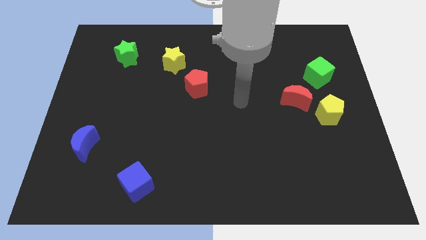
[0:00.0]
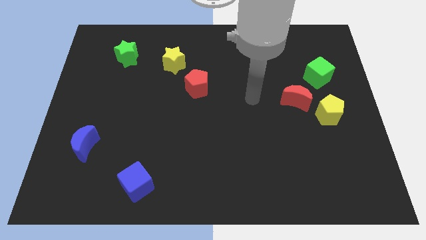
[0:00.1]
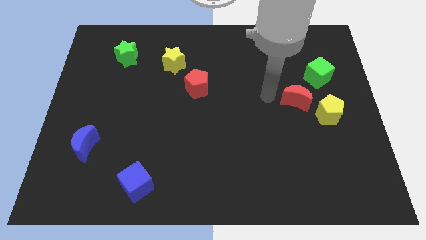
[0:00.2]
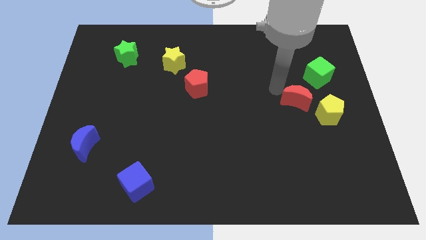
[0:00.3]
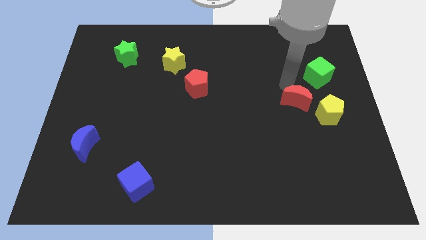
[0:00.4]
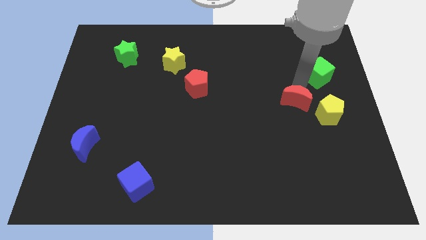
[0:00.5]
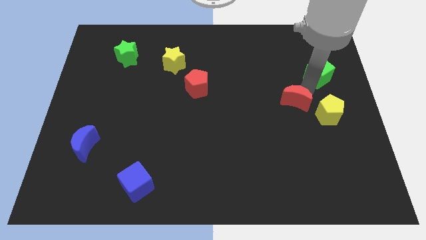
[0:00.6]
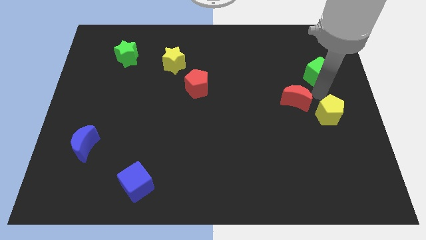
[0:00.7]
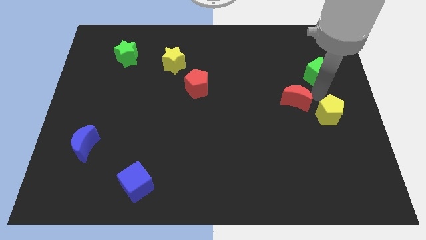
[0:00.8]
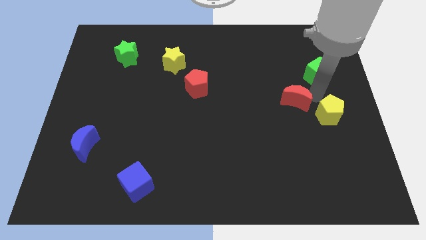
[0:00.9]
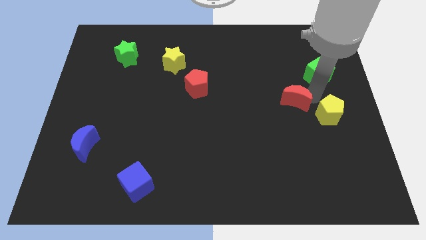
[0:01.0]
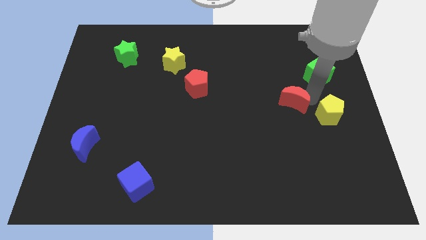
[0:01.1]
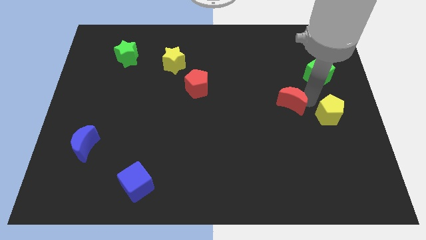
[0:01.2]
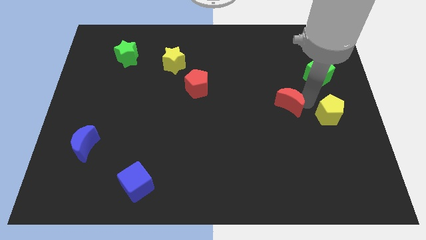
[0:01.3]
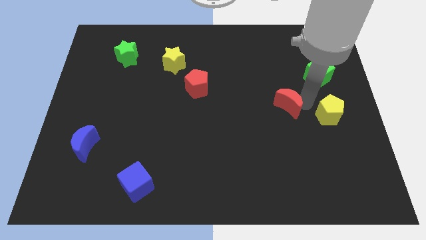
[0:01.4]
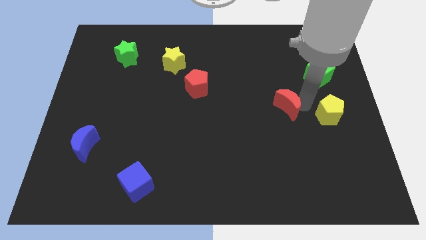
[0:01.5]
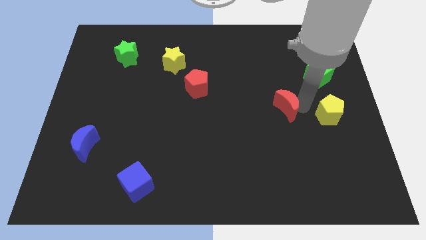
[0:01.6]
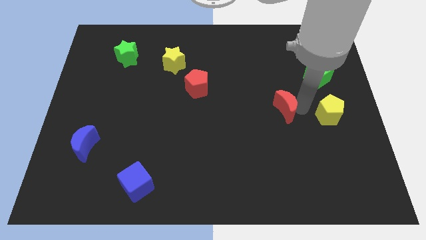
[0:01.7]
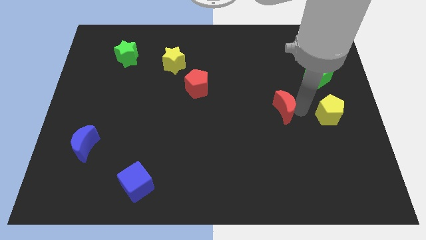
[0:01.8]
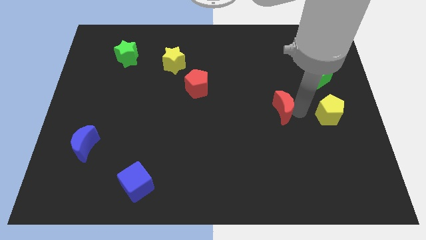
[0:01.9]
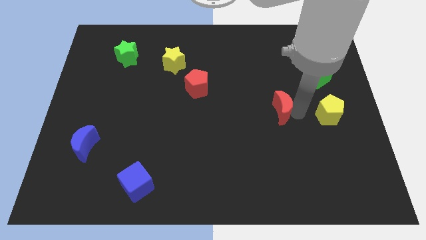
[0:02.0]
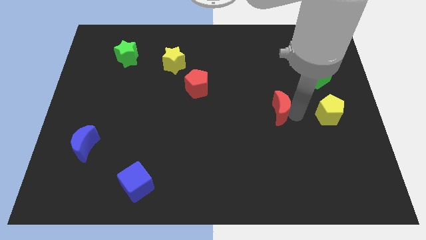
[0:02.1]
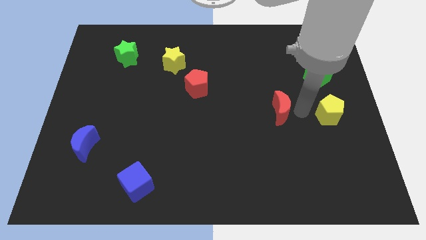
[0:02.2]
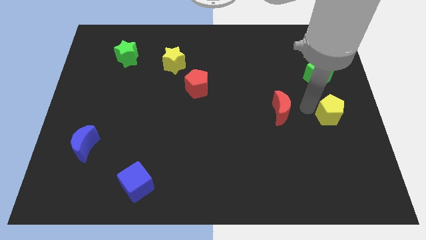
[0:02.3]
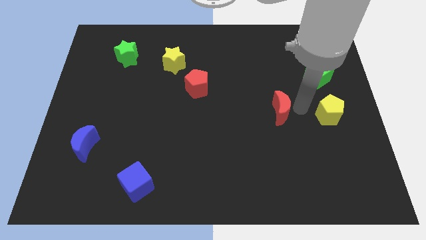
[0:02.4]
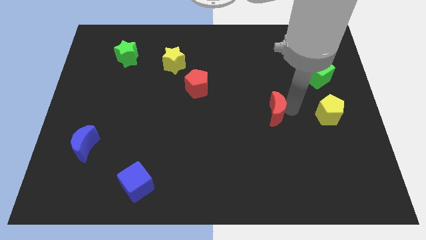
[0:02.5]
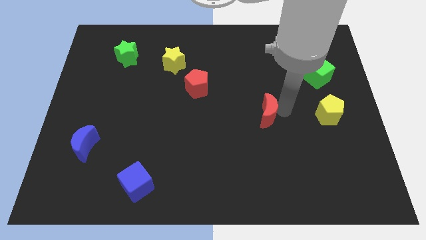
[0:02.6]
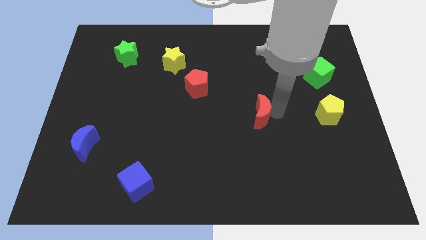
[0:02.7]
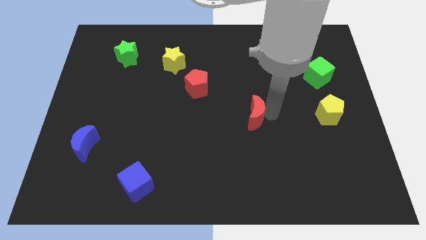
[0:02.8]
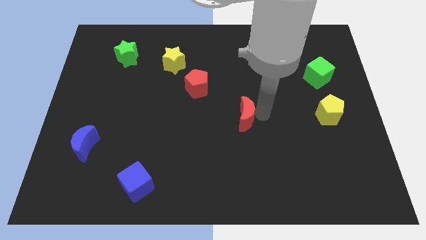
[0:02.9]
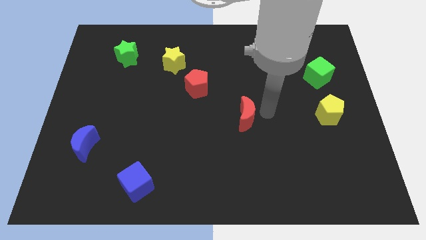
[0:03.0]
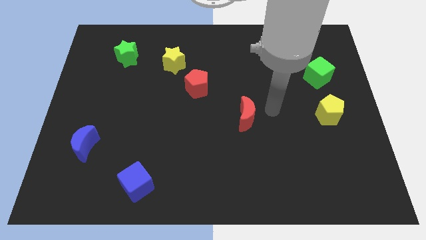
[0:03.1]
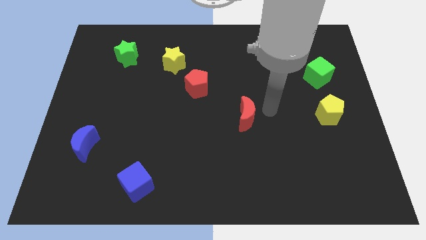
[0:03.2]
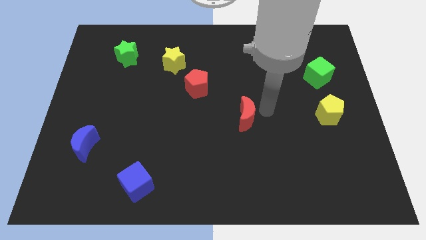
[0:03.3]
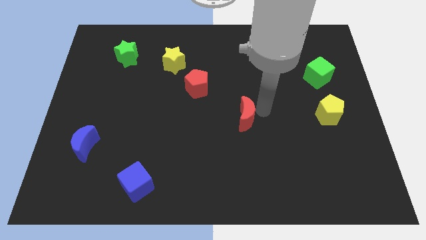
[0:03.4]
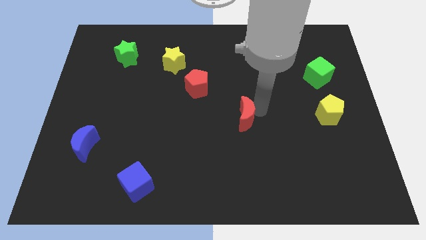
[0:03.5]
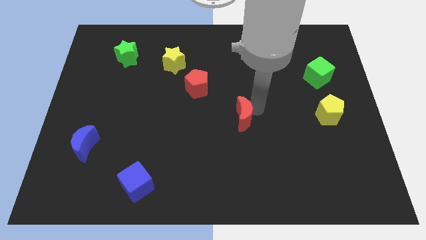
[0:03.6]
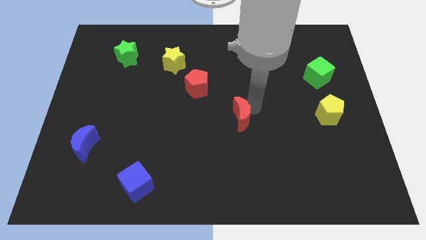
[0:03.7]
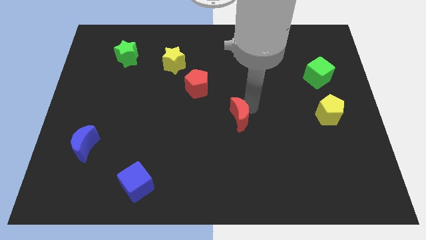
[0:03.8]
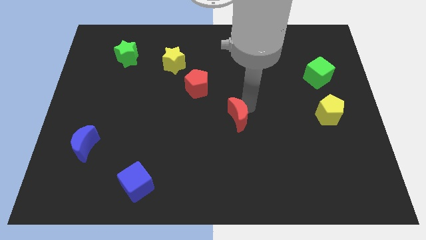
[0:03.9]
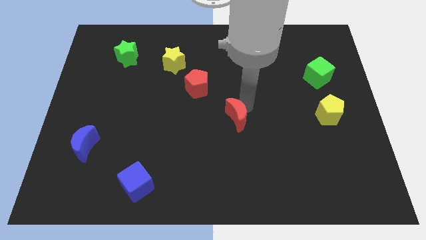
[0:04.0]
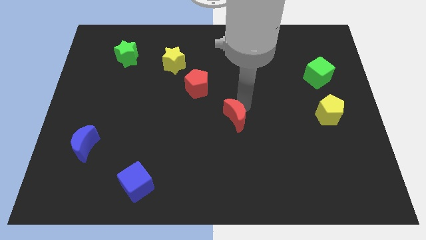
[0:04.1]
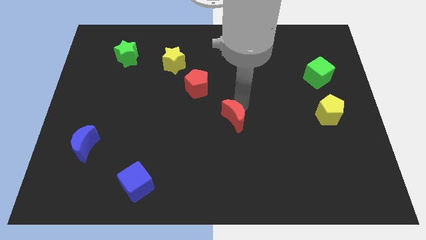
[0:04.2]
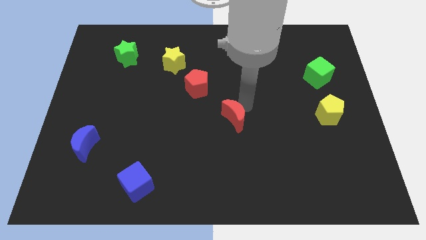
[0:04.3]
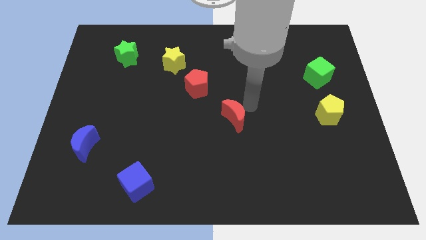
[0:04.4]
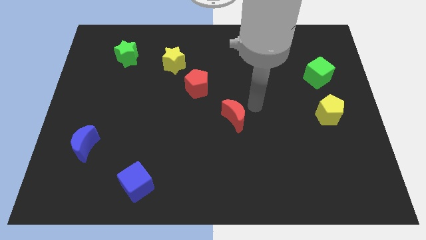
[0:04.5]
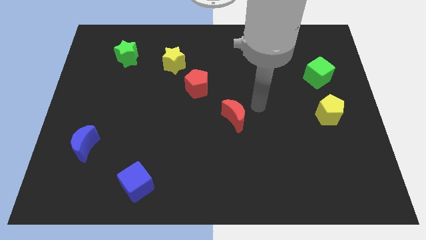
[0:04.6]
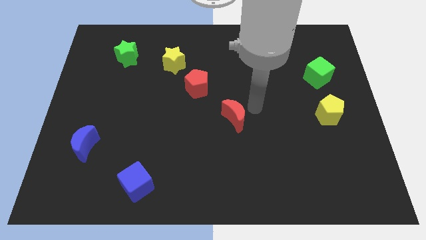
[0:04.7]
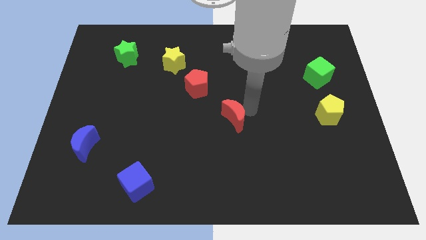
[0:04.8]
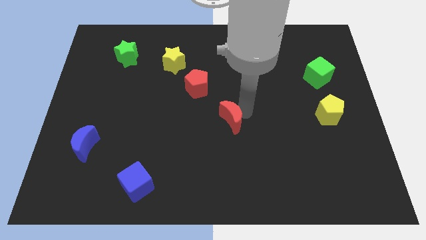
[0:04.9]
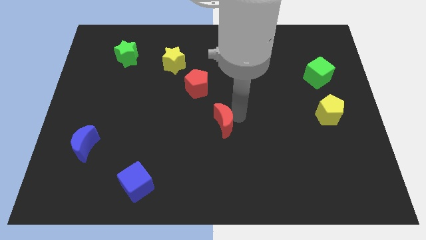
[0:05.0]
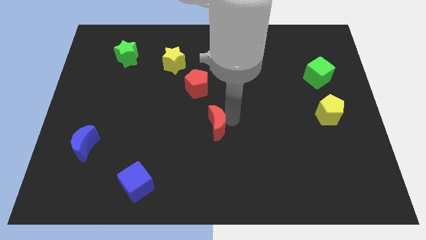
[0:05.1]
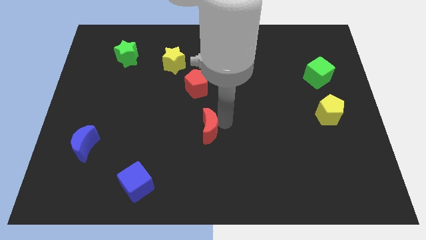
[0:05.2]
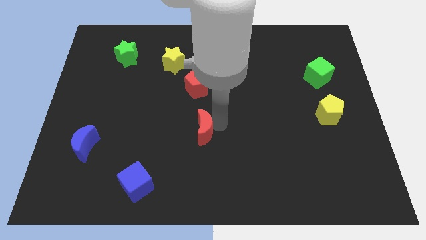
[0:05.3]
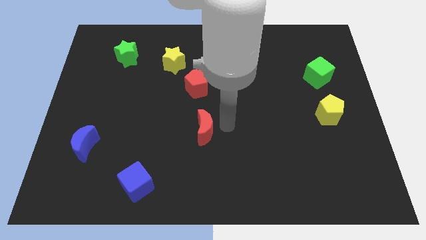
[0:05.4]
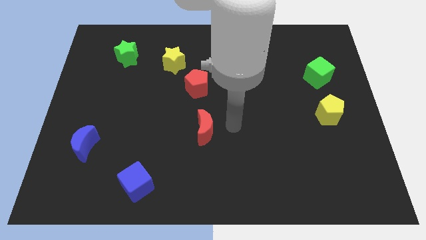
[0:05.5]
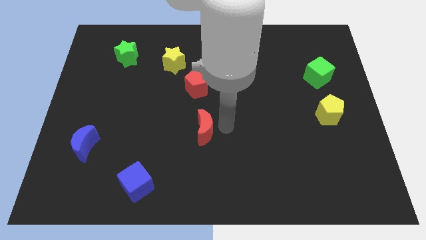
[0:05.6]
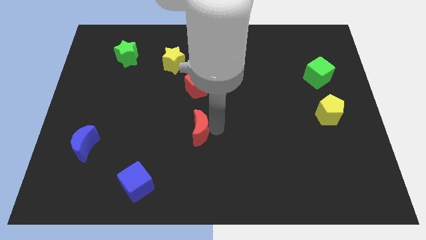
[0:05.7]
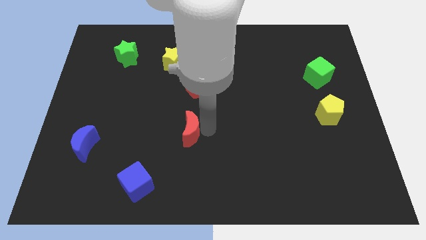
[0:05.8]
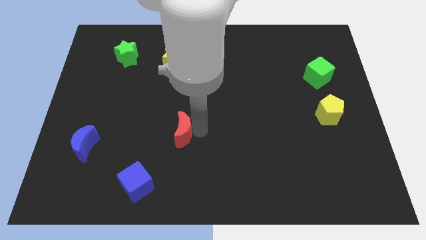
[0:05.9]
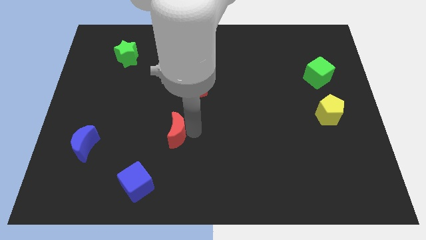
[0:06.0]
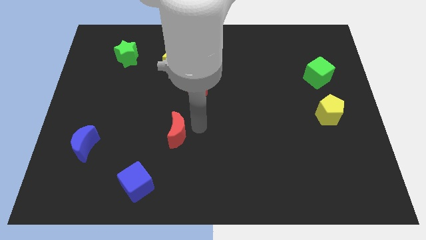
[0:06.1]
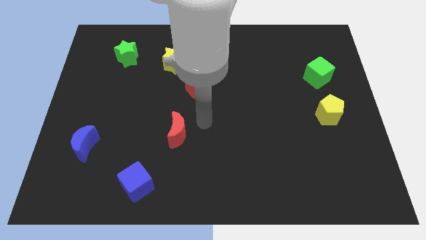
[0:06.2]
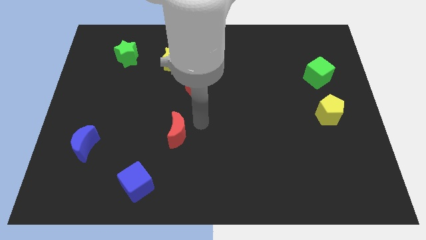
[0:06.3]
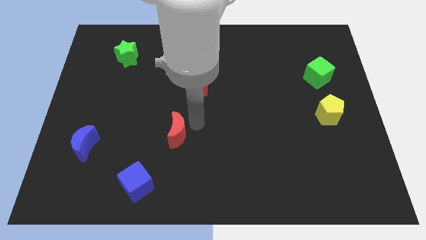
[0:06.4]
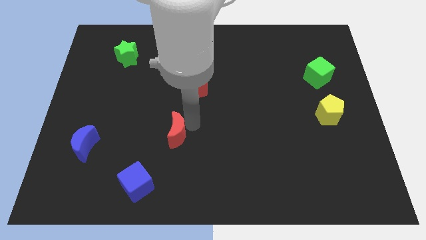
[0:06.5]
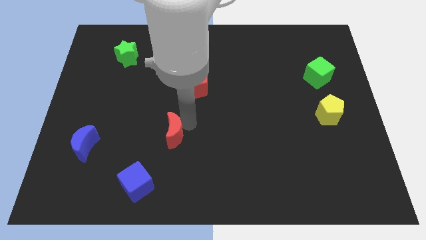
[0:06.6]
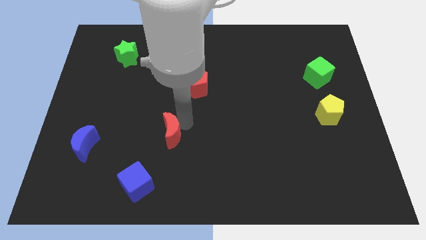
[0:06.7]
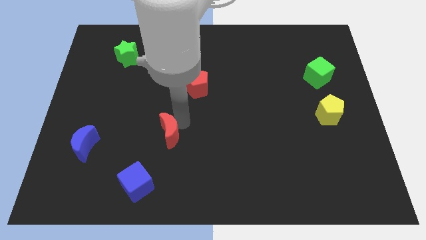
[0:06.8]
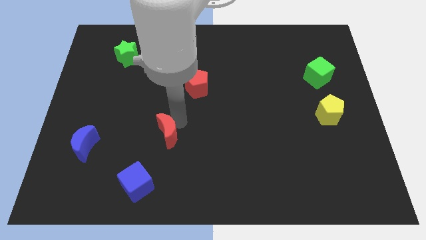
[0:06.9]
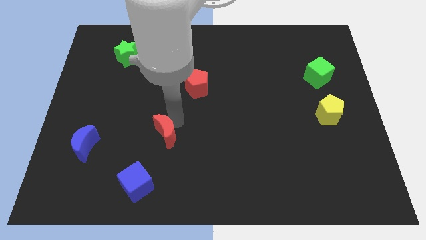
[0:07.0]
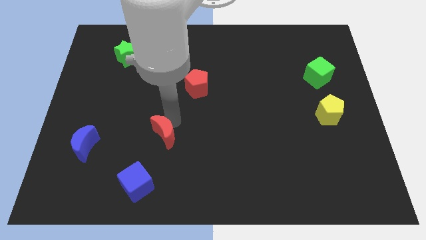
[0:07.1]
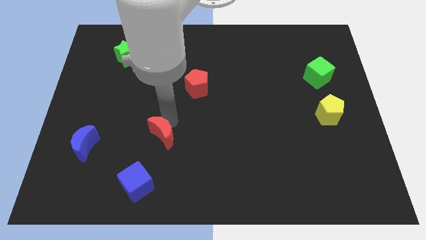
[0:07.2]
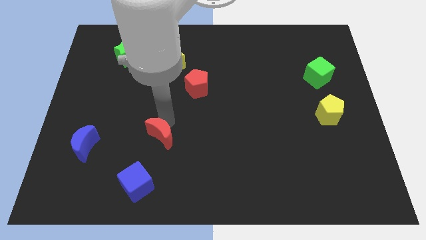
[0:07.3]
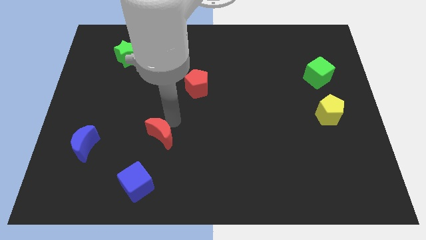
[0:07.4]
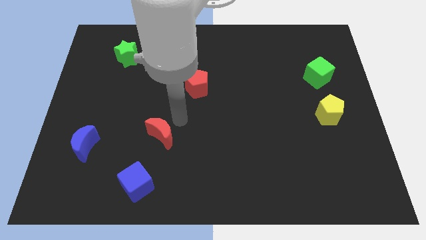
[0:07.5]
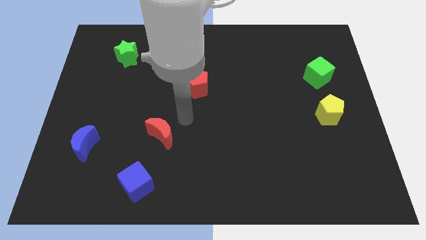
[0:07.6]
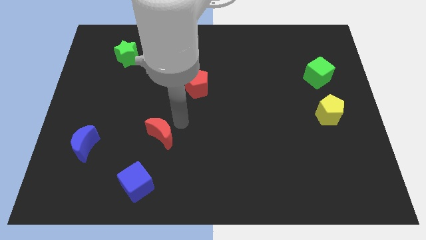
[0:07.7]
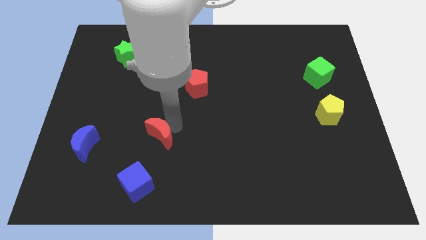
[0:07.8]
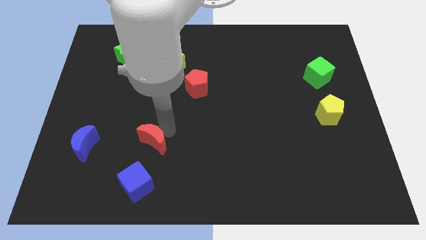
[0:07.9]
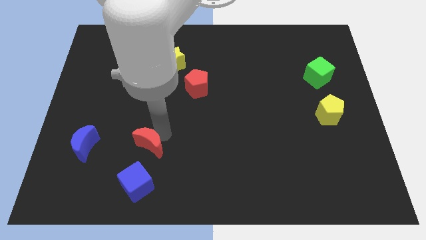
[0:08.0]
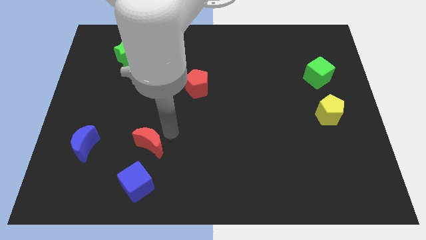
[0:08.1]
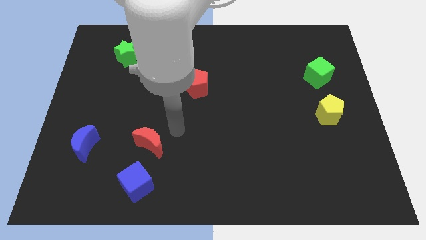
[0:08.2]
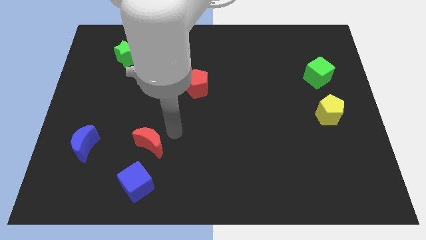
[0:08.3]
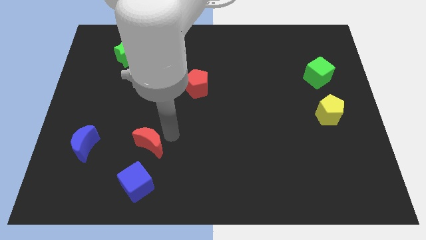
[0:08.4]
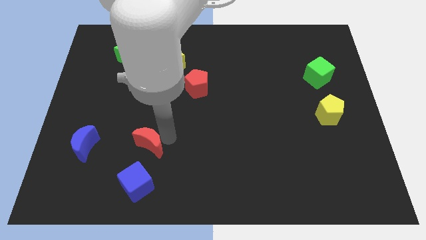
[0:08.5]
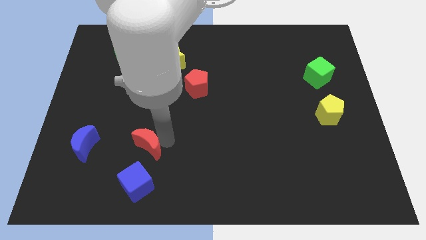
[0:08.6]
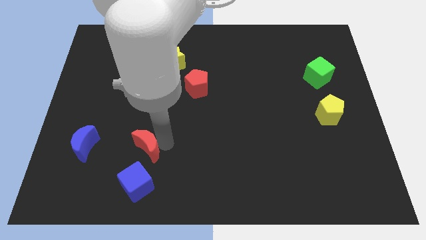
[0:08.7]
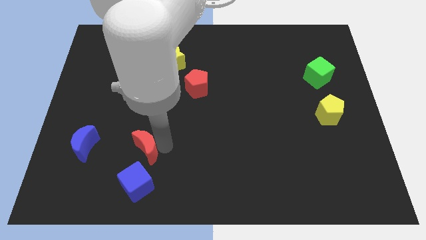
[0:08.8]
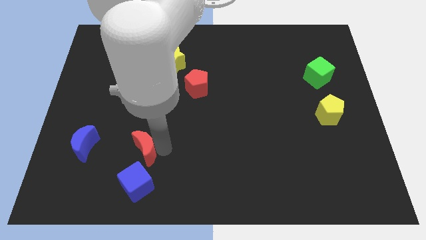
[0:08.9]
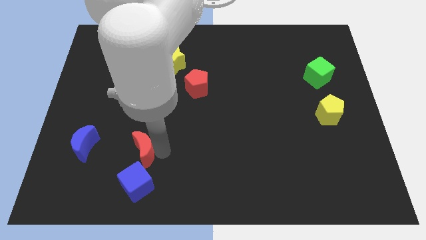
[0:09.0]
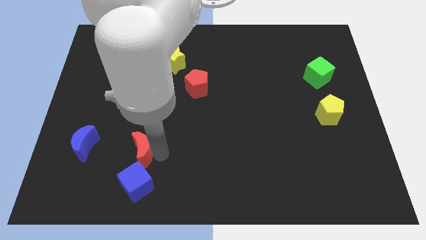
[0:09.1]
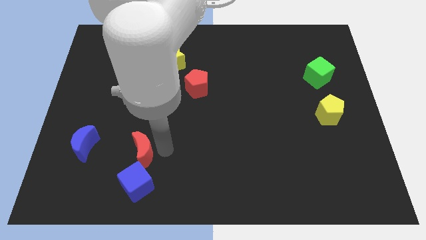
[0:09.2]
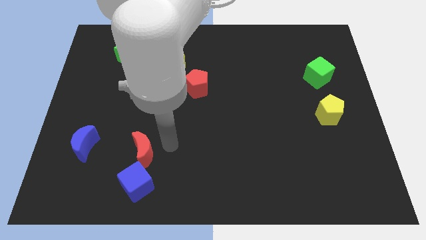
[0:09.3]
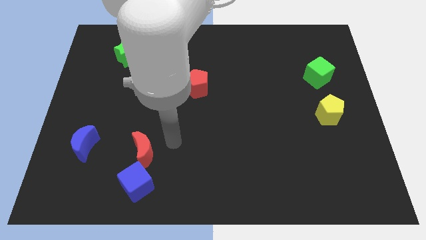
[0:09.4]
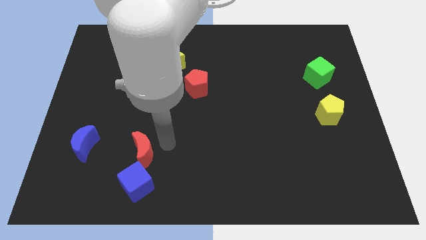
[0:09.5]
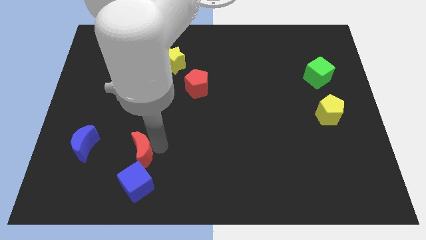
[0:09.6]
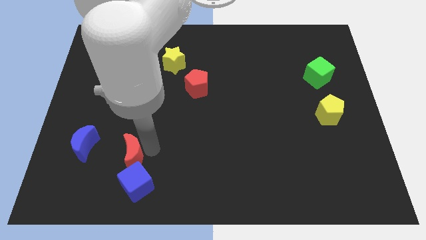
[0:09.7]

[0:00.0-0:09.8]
move the red moon to the top left of the blue cube
